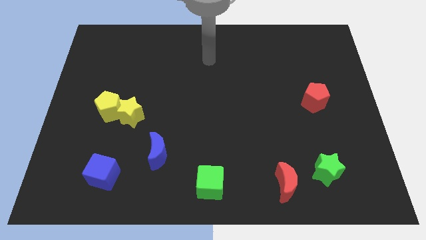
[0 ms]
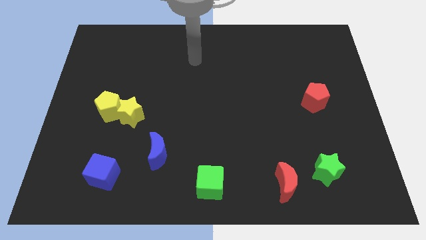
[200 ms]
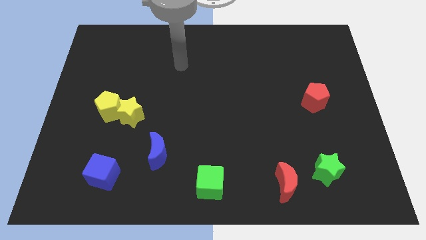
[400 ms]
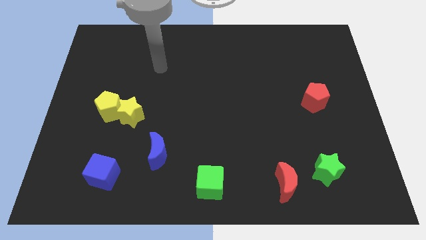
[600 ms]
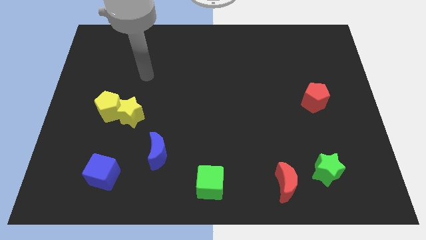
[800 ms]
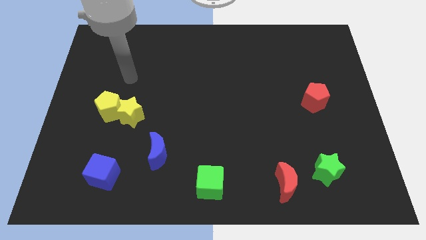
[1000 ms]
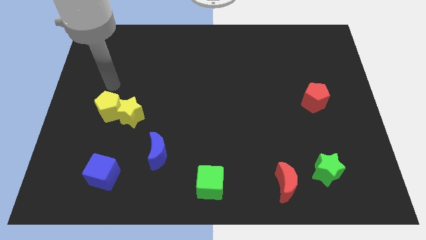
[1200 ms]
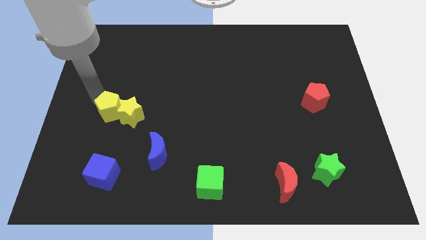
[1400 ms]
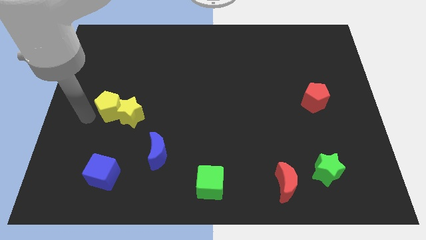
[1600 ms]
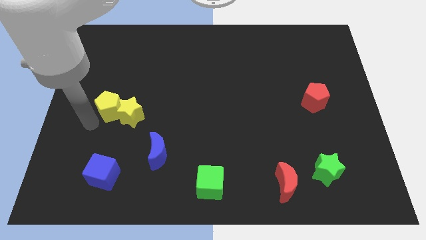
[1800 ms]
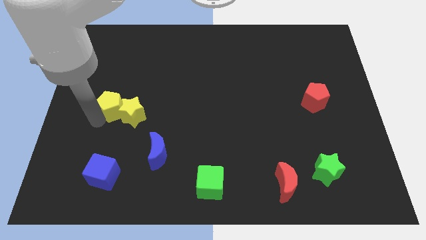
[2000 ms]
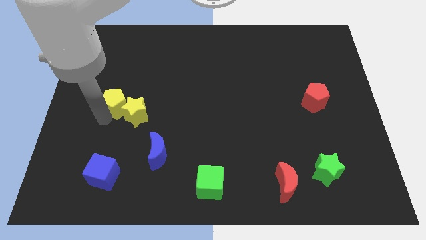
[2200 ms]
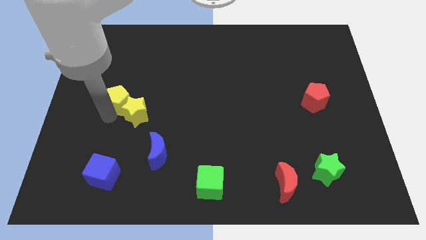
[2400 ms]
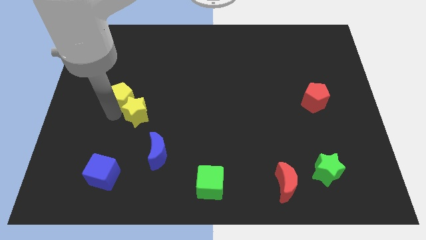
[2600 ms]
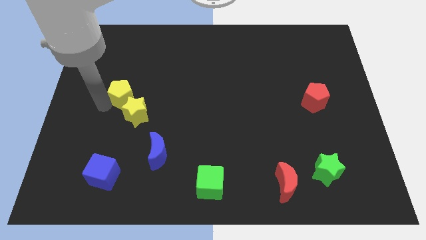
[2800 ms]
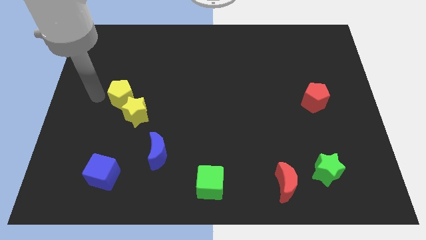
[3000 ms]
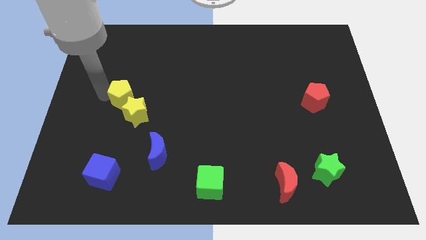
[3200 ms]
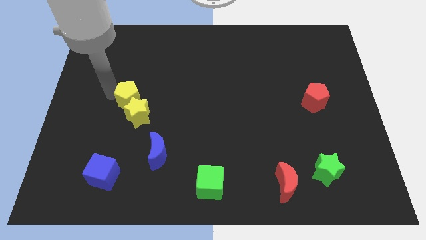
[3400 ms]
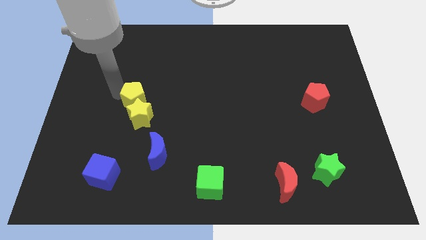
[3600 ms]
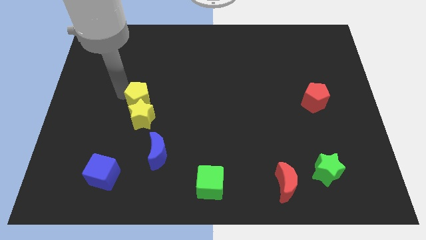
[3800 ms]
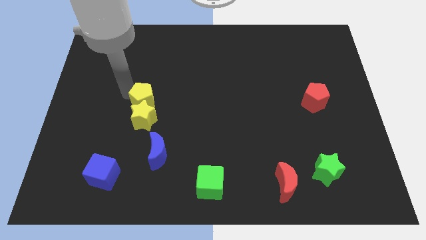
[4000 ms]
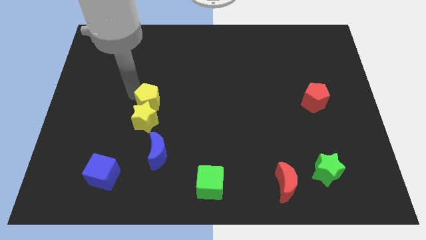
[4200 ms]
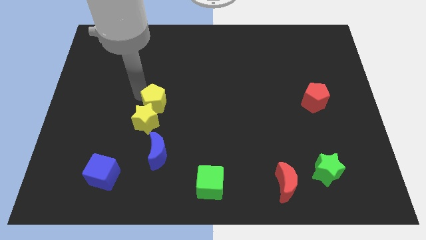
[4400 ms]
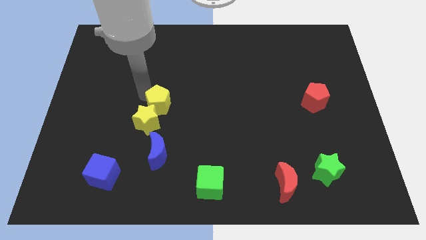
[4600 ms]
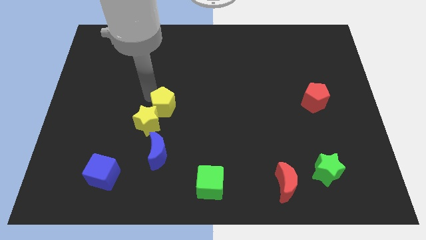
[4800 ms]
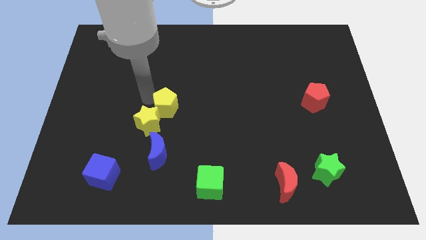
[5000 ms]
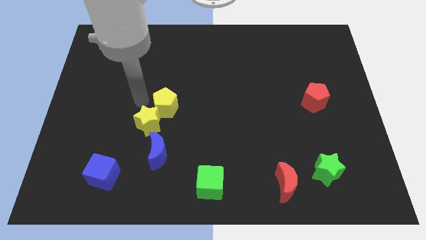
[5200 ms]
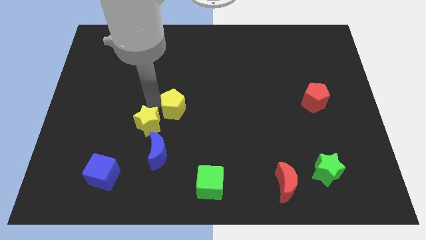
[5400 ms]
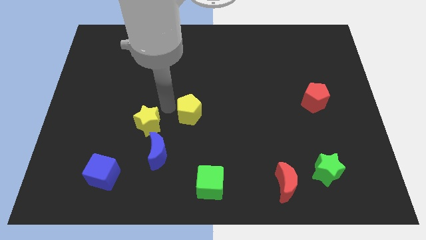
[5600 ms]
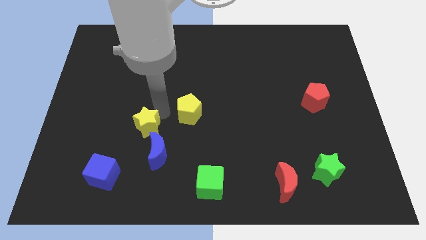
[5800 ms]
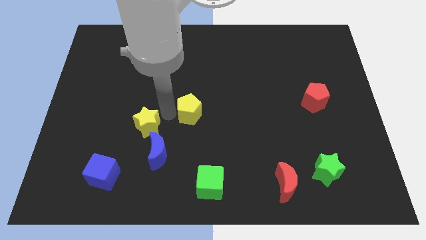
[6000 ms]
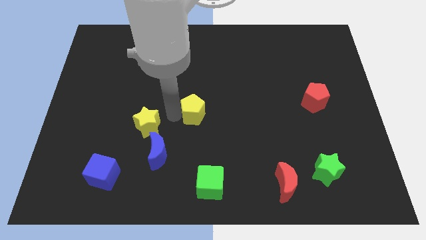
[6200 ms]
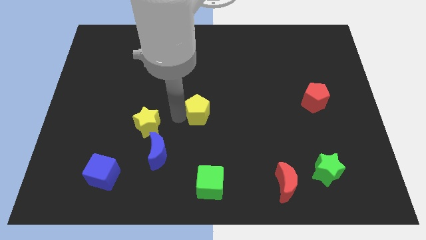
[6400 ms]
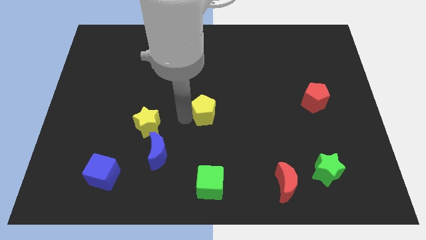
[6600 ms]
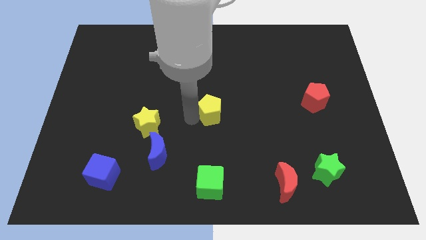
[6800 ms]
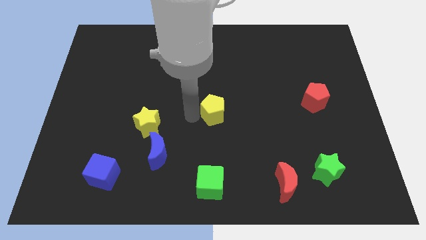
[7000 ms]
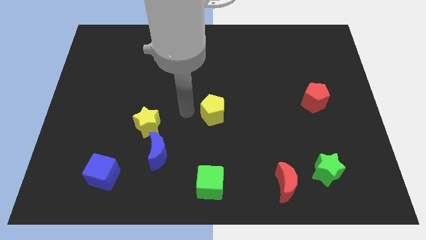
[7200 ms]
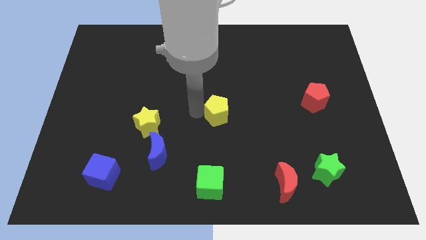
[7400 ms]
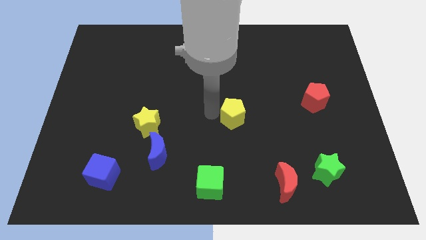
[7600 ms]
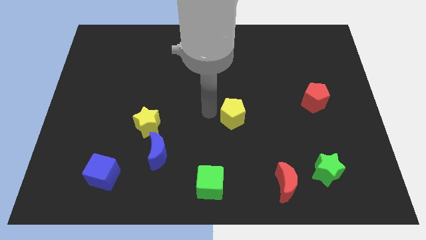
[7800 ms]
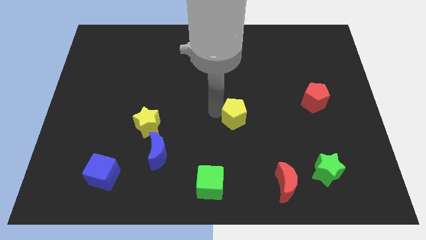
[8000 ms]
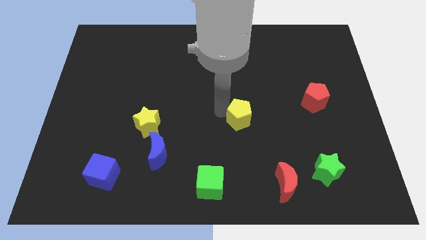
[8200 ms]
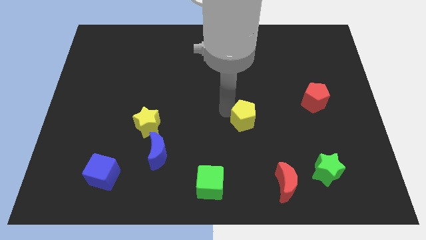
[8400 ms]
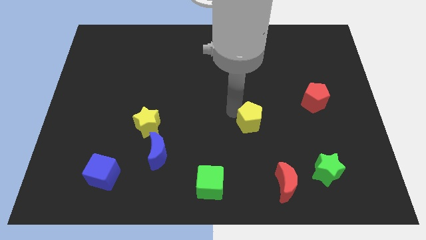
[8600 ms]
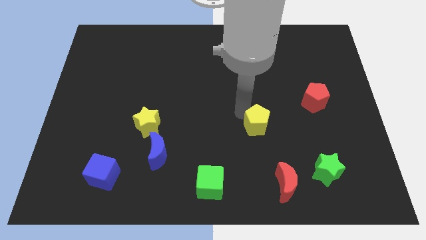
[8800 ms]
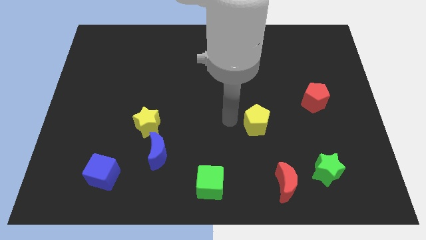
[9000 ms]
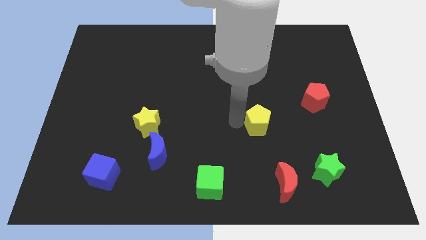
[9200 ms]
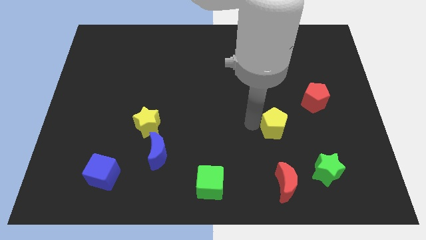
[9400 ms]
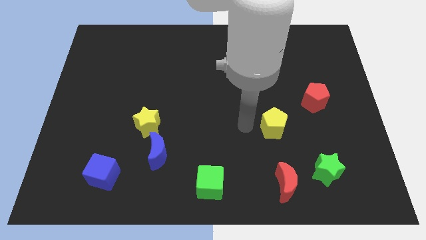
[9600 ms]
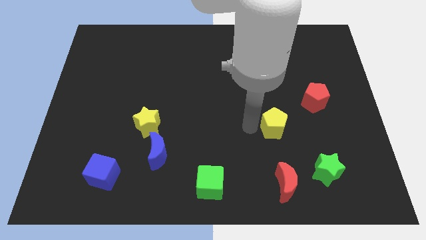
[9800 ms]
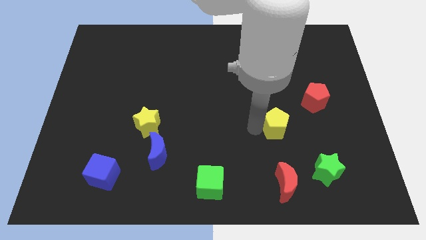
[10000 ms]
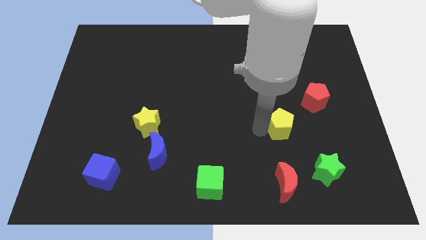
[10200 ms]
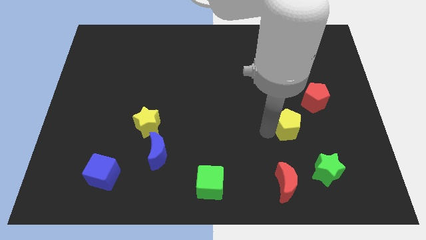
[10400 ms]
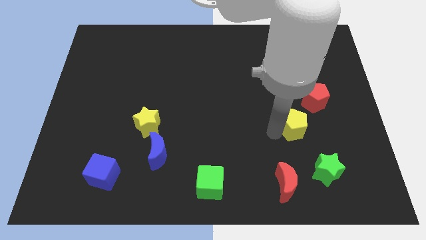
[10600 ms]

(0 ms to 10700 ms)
push the yellow pentagon above the green star

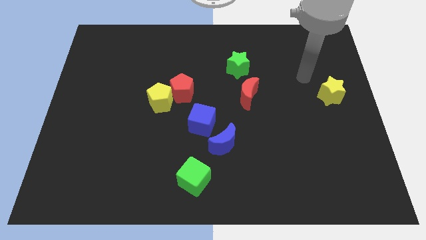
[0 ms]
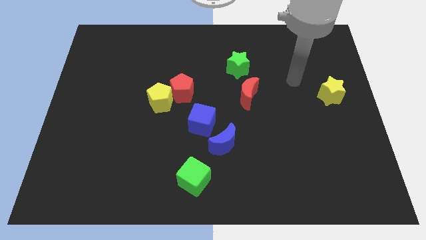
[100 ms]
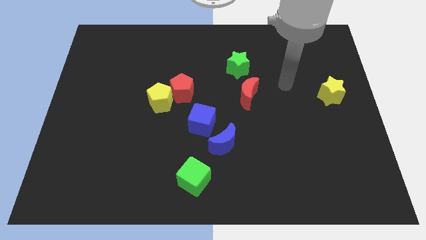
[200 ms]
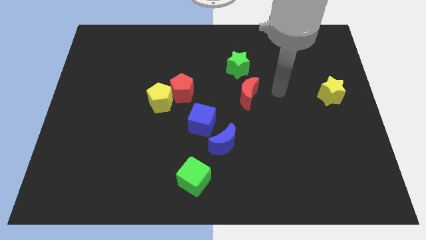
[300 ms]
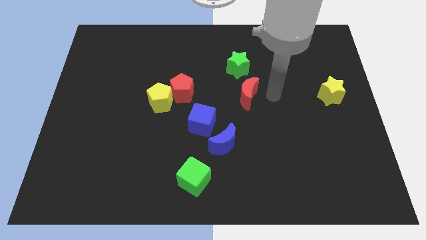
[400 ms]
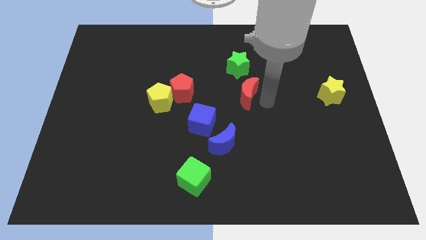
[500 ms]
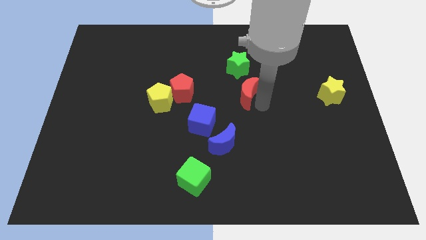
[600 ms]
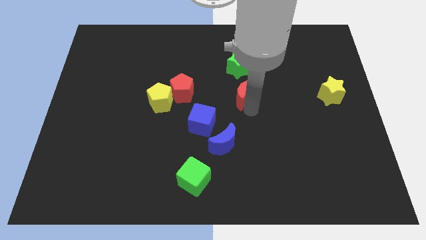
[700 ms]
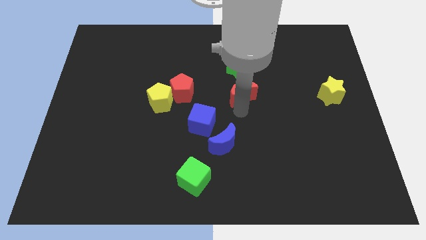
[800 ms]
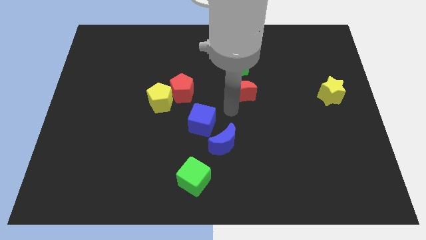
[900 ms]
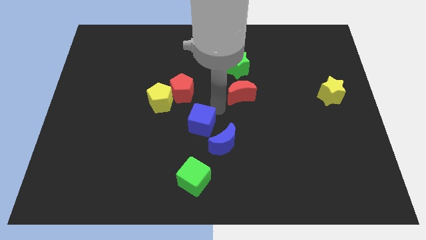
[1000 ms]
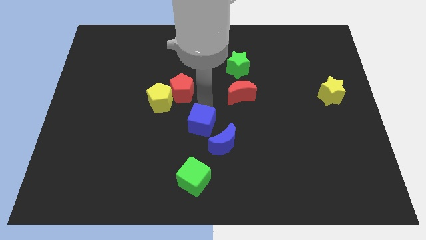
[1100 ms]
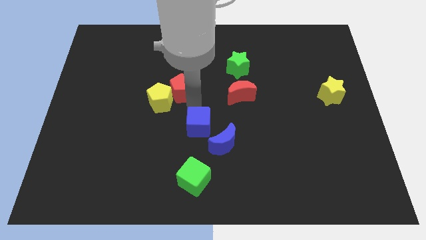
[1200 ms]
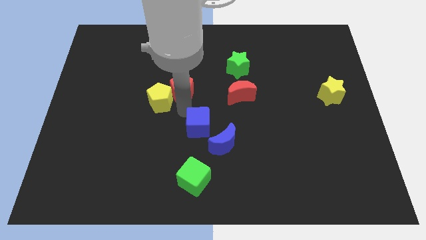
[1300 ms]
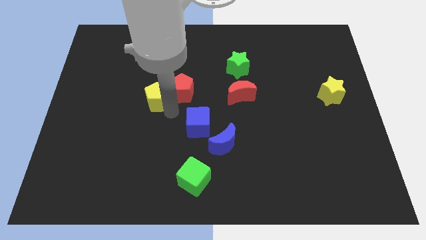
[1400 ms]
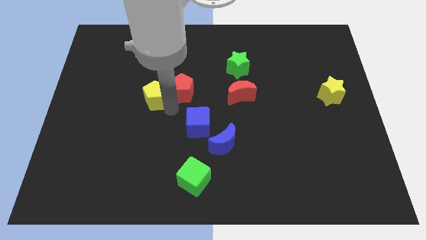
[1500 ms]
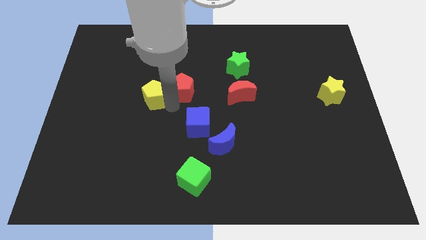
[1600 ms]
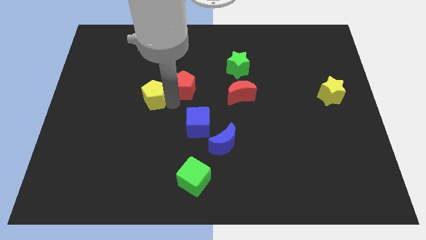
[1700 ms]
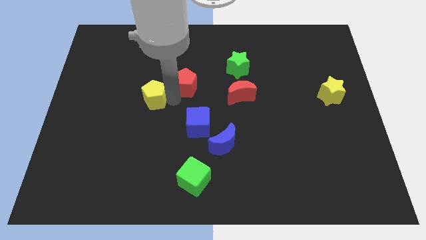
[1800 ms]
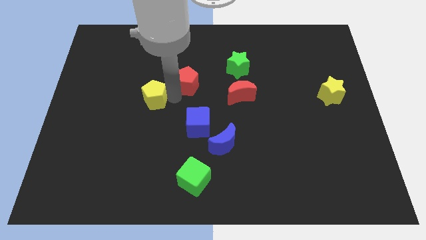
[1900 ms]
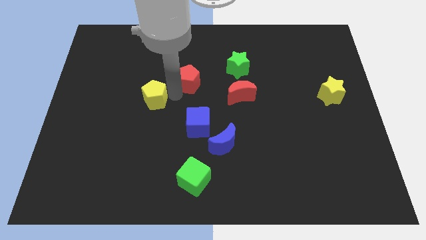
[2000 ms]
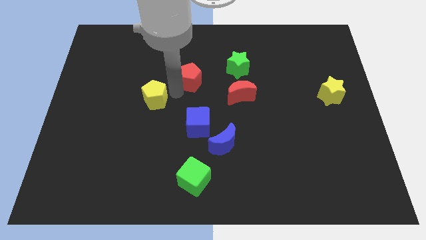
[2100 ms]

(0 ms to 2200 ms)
push the red pentagon to the left of the green star
